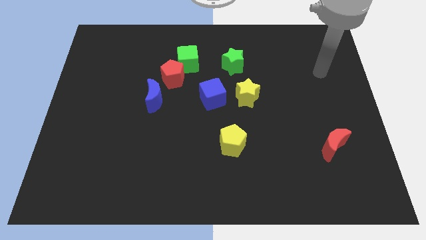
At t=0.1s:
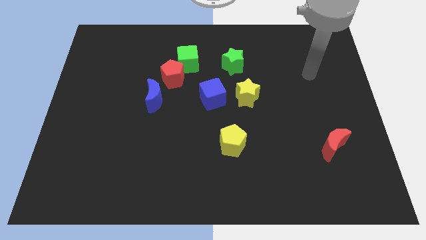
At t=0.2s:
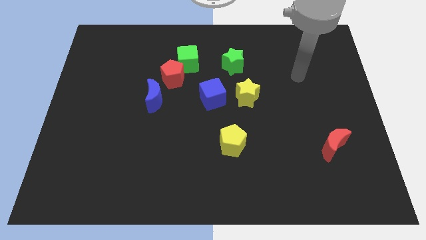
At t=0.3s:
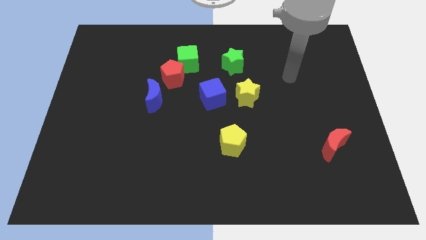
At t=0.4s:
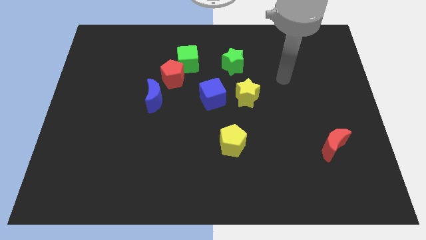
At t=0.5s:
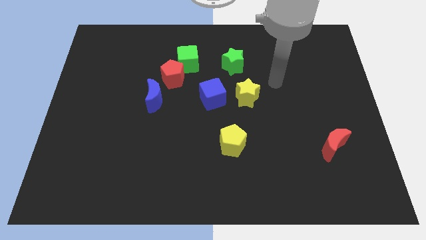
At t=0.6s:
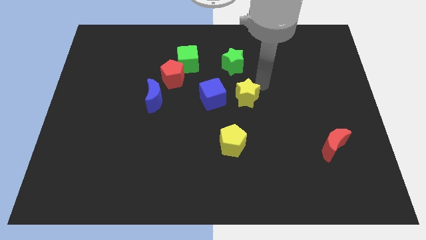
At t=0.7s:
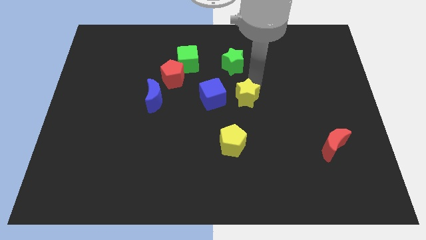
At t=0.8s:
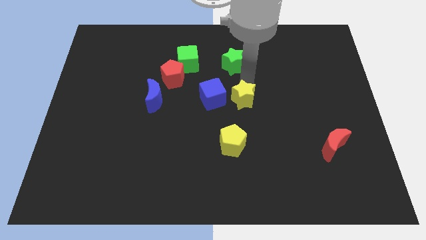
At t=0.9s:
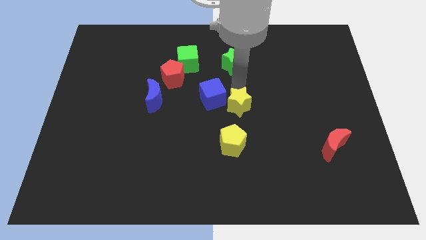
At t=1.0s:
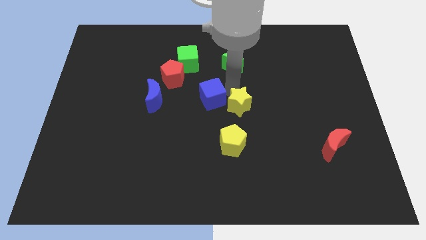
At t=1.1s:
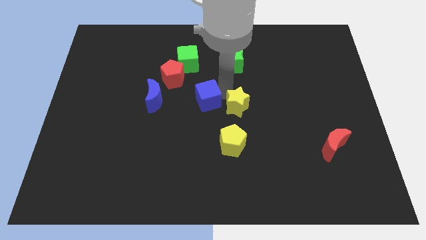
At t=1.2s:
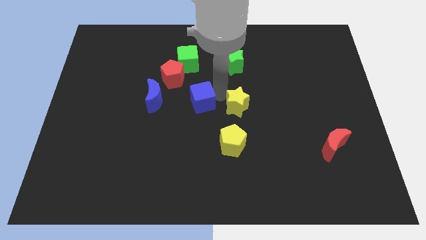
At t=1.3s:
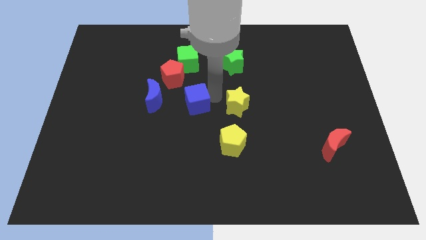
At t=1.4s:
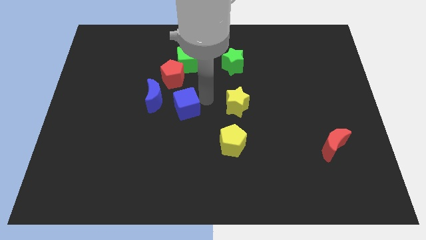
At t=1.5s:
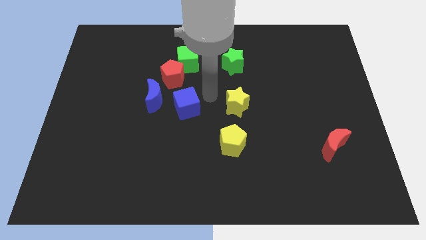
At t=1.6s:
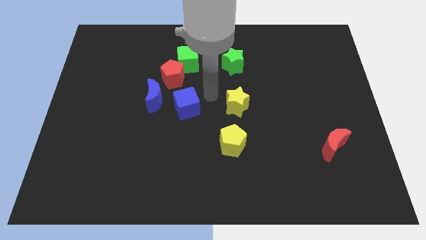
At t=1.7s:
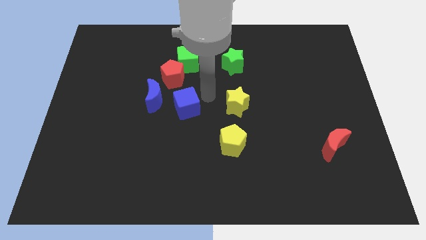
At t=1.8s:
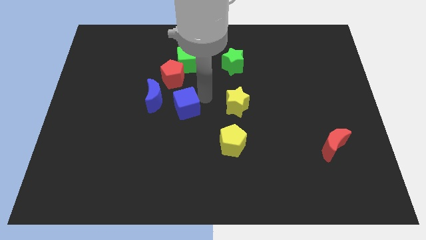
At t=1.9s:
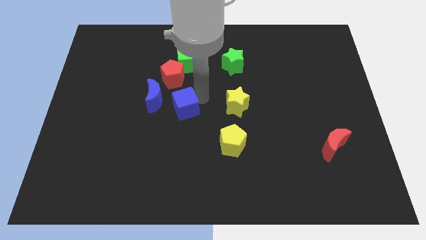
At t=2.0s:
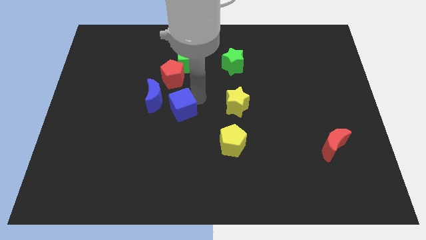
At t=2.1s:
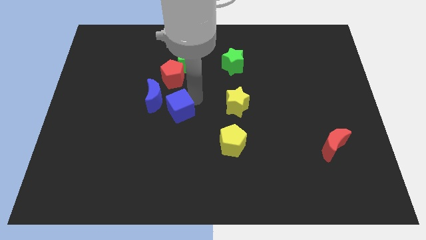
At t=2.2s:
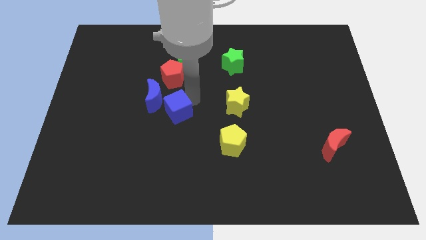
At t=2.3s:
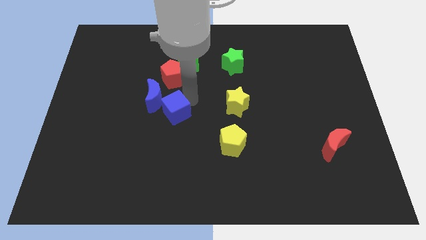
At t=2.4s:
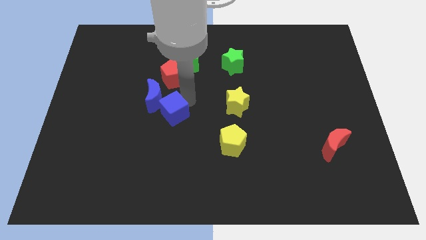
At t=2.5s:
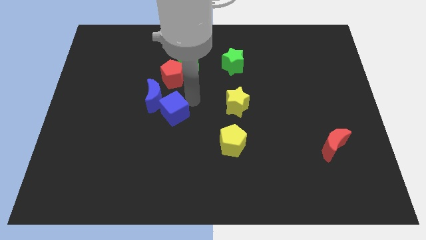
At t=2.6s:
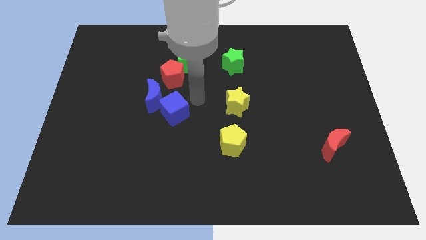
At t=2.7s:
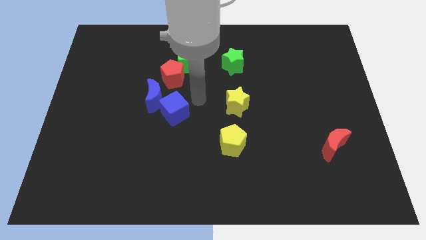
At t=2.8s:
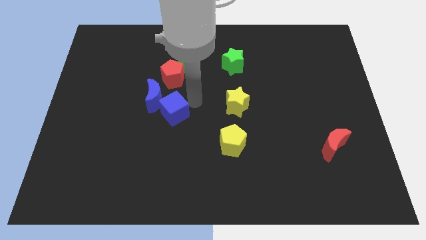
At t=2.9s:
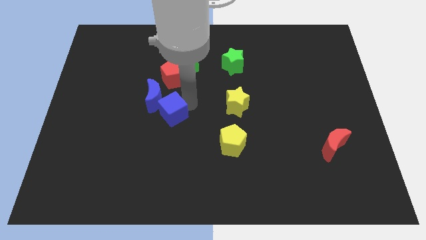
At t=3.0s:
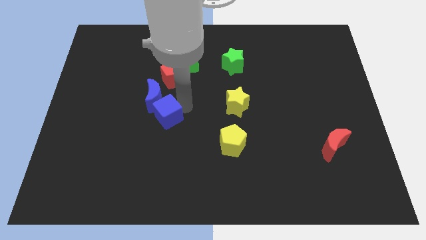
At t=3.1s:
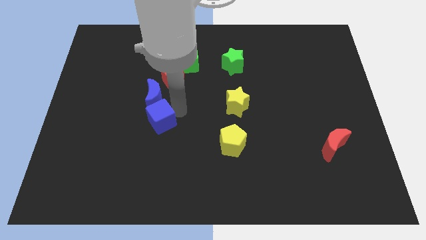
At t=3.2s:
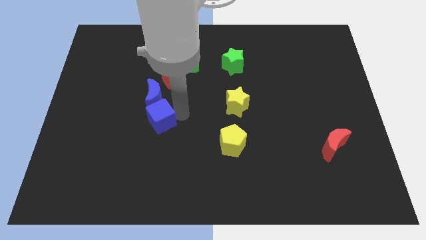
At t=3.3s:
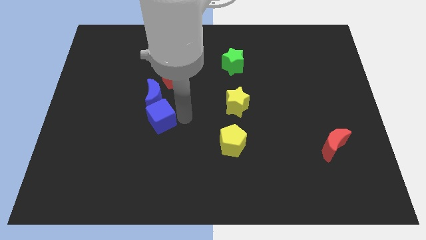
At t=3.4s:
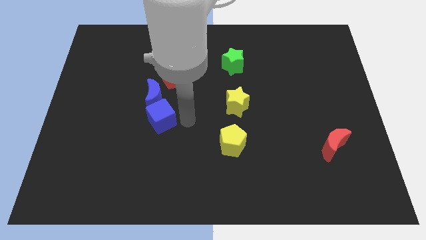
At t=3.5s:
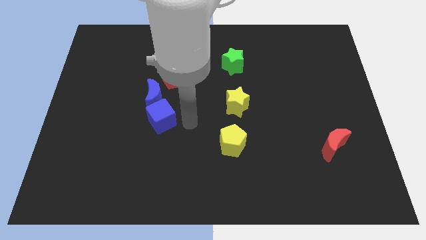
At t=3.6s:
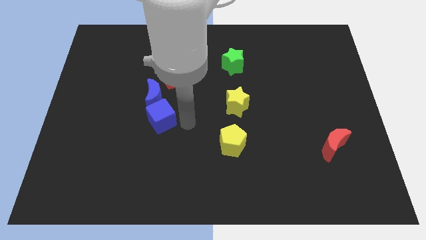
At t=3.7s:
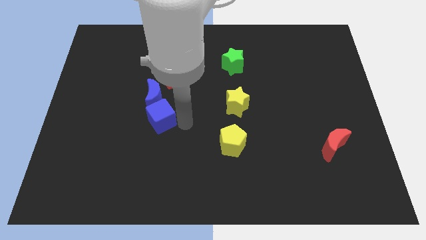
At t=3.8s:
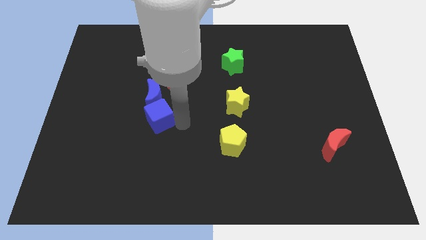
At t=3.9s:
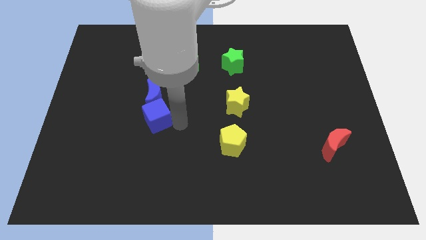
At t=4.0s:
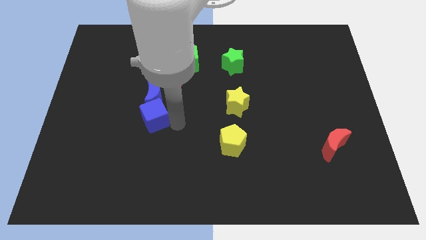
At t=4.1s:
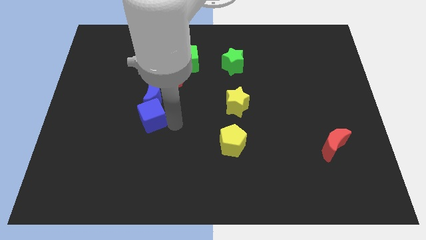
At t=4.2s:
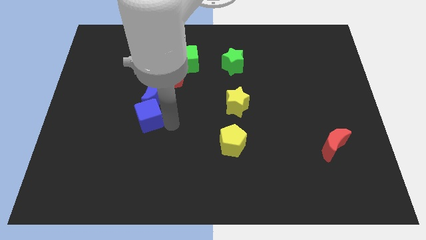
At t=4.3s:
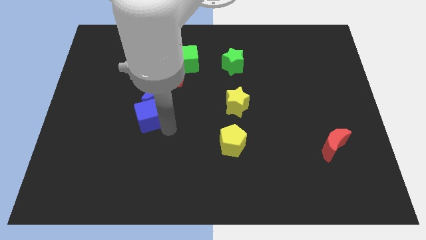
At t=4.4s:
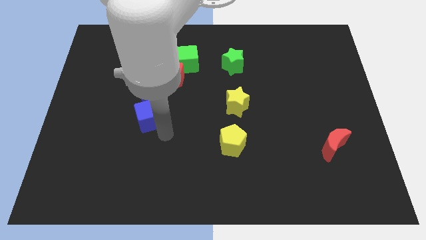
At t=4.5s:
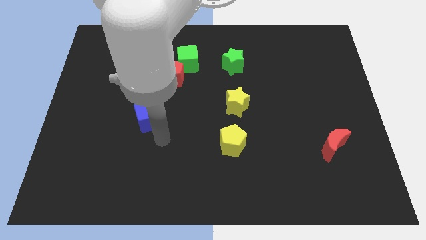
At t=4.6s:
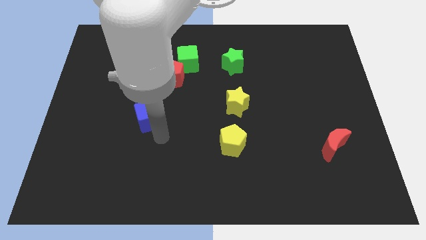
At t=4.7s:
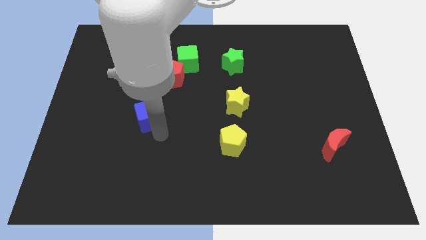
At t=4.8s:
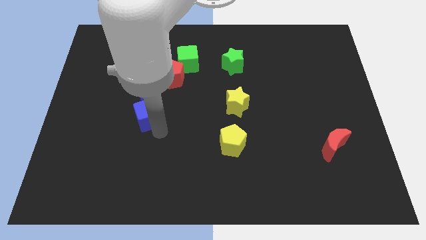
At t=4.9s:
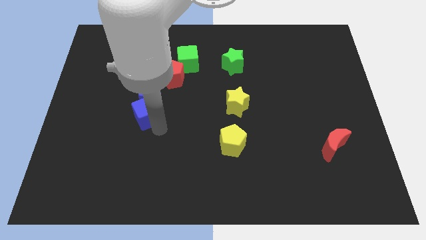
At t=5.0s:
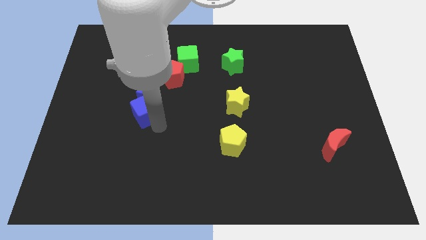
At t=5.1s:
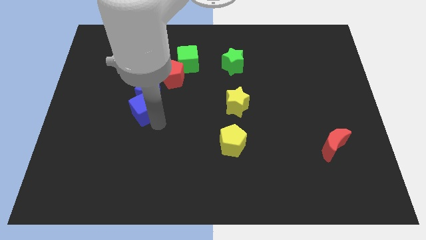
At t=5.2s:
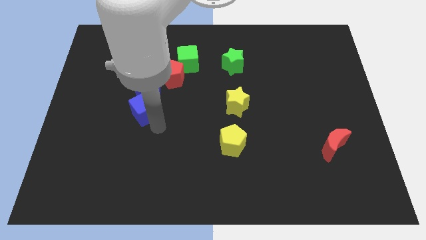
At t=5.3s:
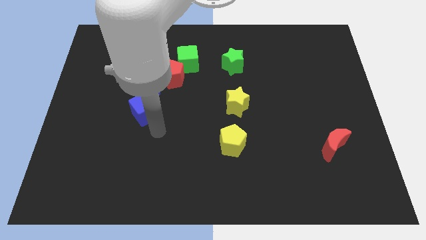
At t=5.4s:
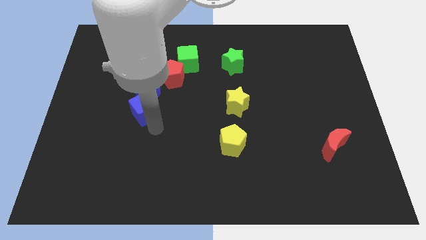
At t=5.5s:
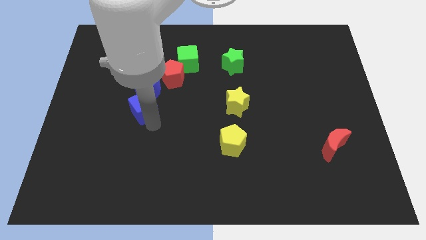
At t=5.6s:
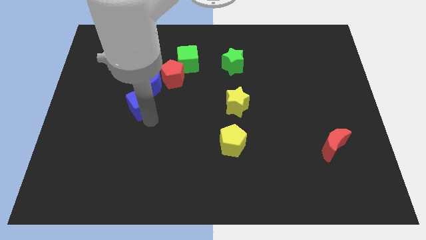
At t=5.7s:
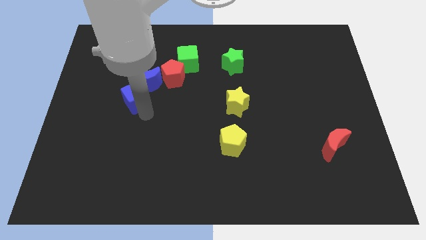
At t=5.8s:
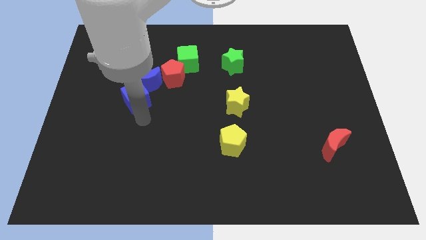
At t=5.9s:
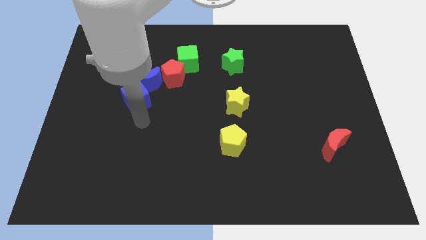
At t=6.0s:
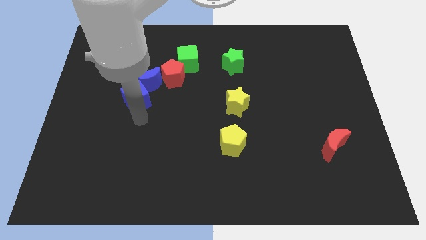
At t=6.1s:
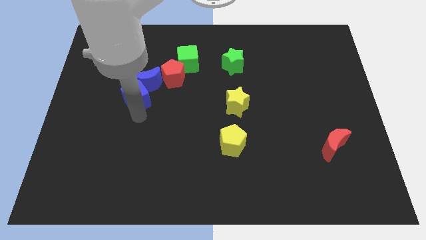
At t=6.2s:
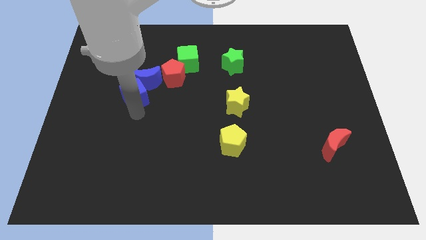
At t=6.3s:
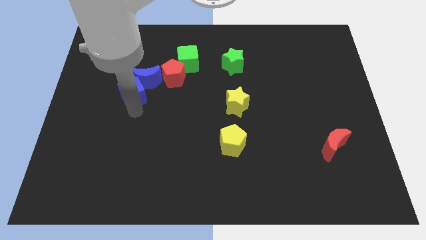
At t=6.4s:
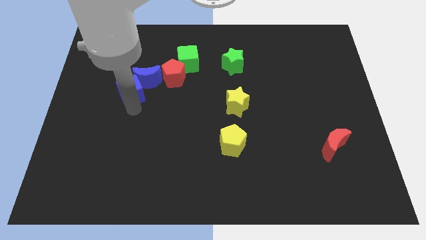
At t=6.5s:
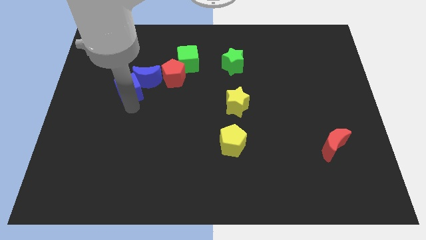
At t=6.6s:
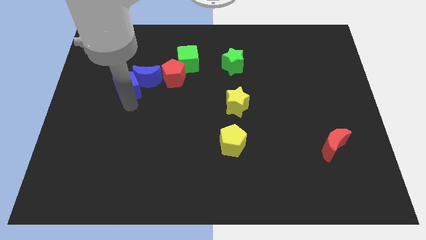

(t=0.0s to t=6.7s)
move the blue cube just left of the red pentagon

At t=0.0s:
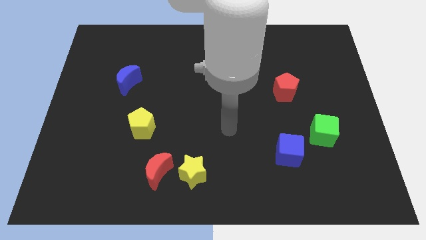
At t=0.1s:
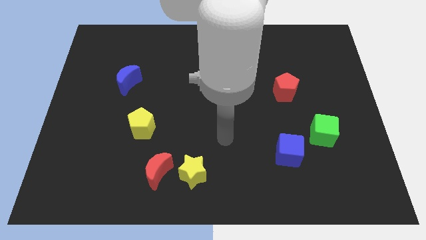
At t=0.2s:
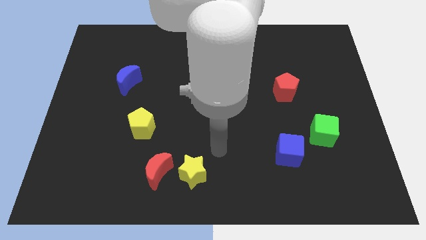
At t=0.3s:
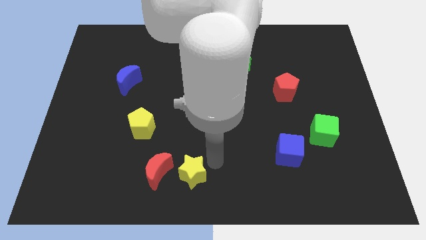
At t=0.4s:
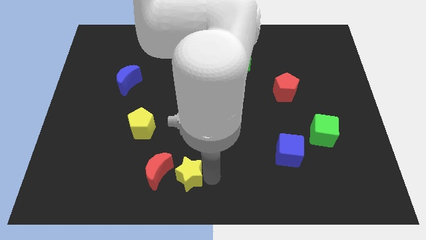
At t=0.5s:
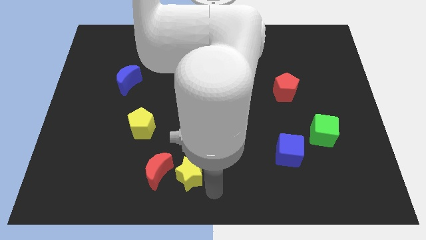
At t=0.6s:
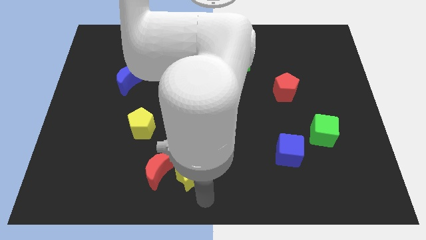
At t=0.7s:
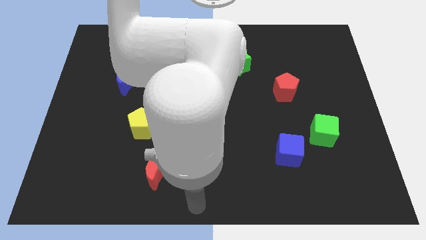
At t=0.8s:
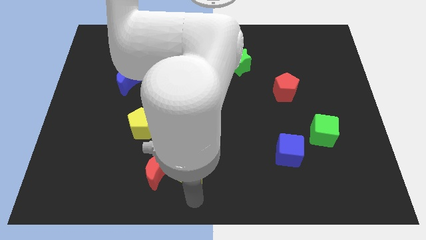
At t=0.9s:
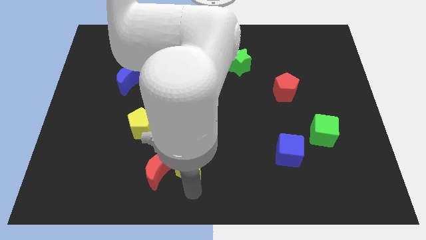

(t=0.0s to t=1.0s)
slide the yellow star to the top right of the red moon
